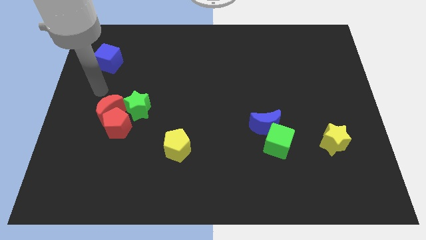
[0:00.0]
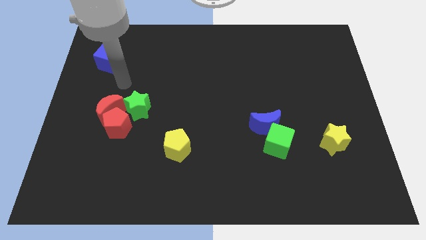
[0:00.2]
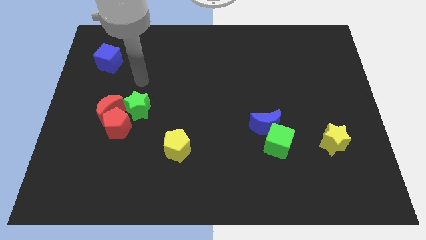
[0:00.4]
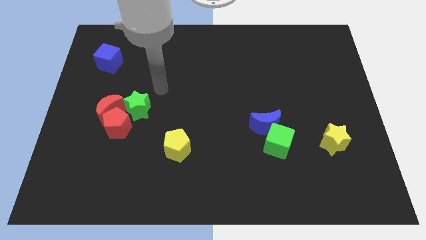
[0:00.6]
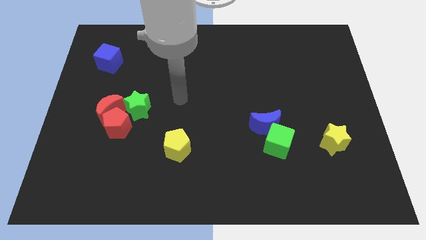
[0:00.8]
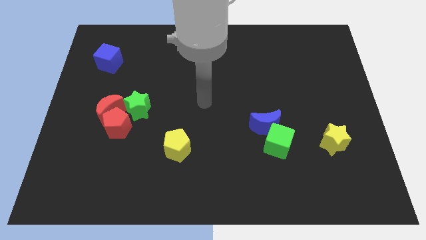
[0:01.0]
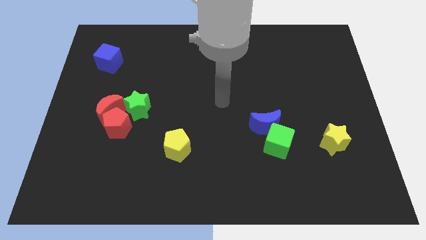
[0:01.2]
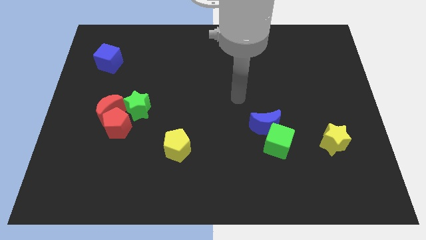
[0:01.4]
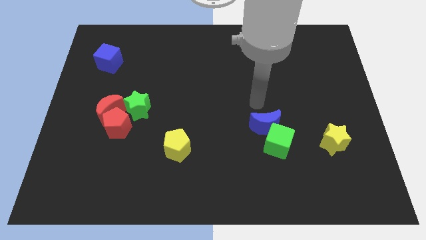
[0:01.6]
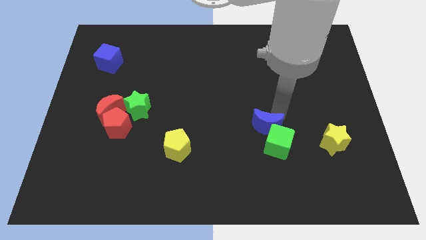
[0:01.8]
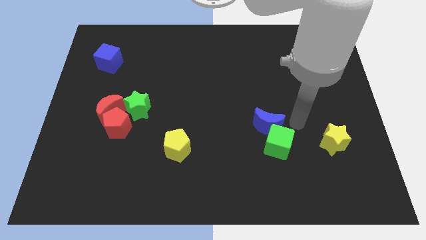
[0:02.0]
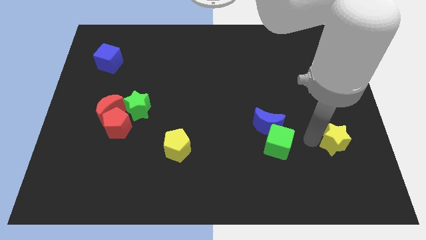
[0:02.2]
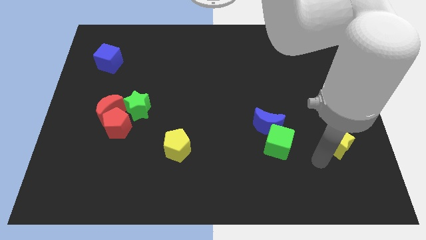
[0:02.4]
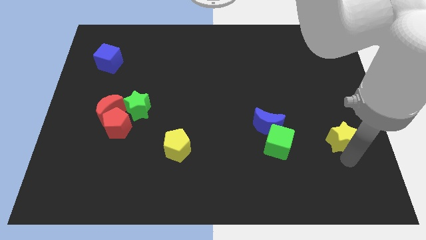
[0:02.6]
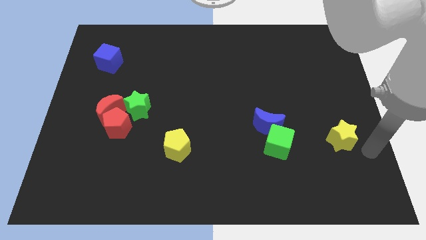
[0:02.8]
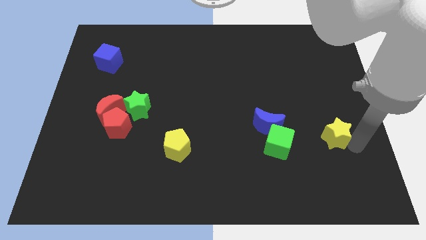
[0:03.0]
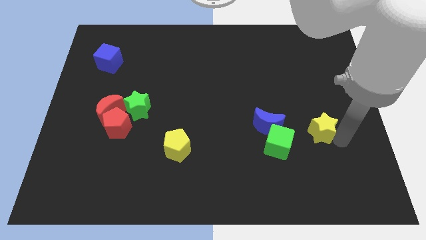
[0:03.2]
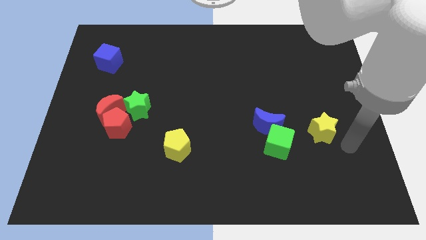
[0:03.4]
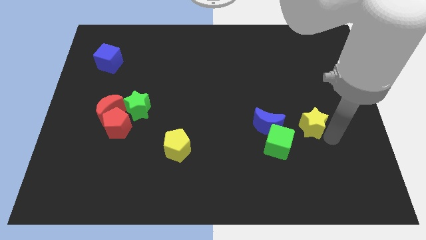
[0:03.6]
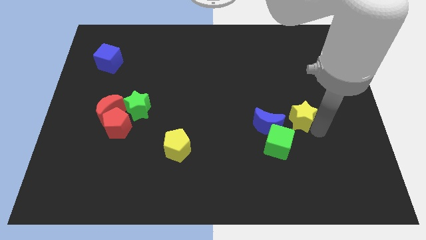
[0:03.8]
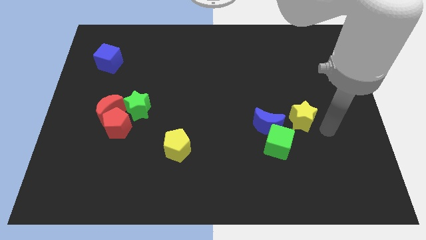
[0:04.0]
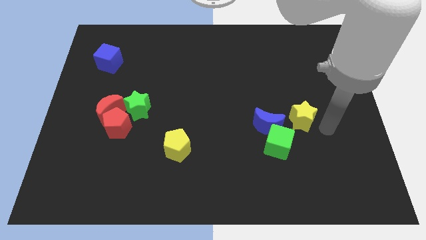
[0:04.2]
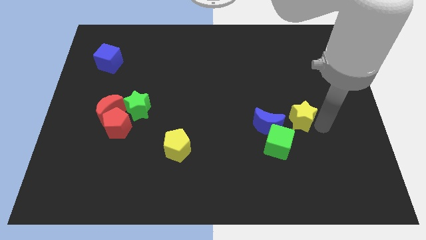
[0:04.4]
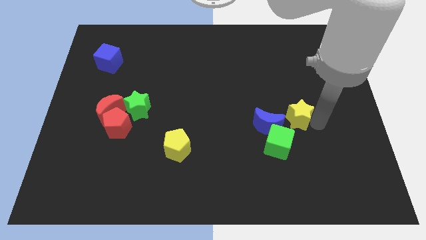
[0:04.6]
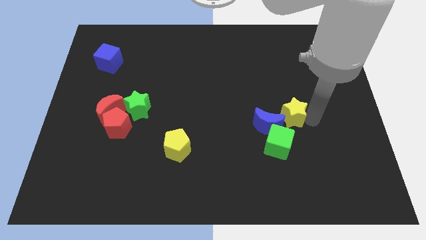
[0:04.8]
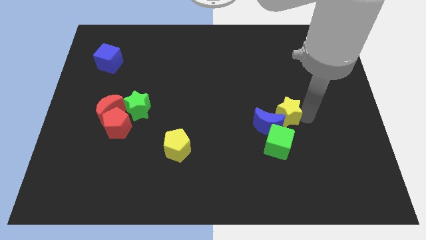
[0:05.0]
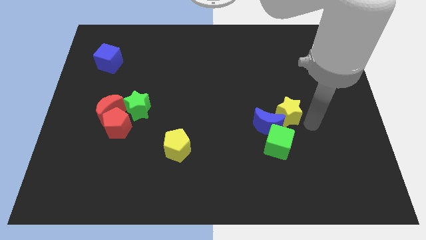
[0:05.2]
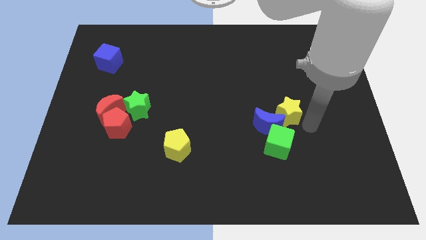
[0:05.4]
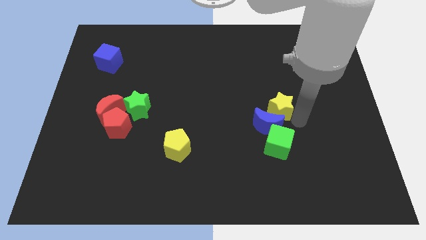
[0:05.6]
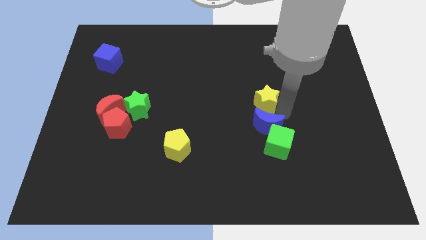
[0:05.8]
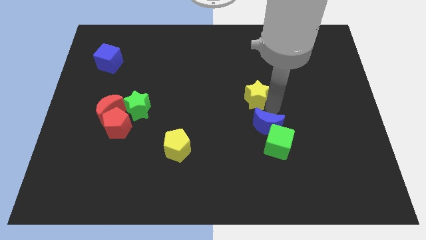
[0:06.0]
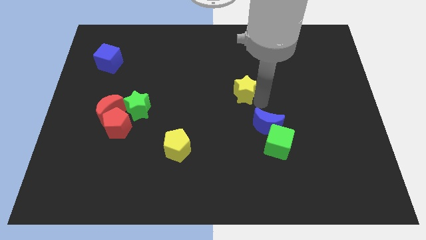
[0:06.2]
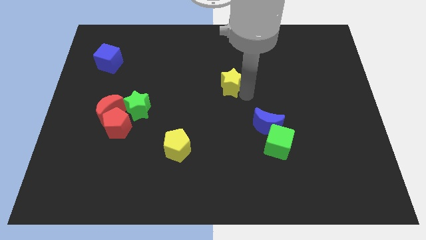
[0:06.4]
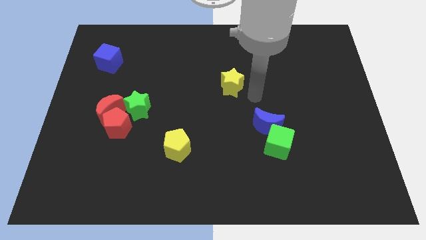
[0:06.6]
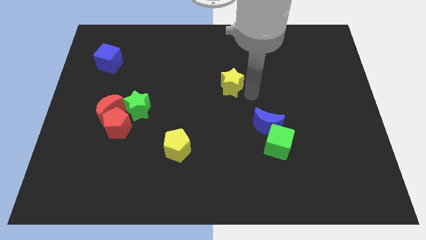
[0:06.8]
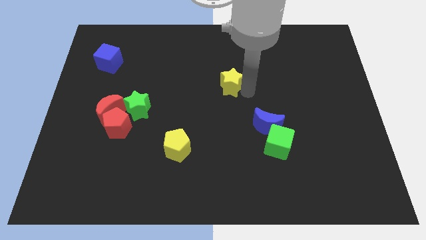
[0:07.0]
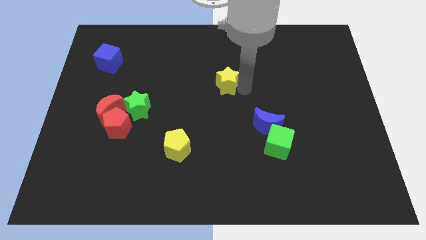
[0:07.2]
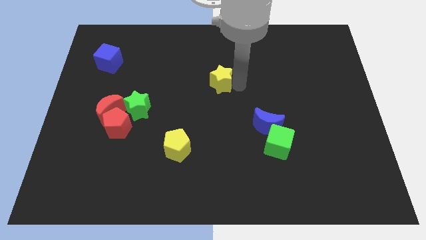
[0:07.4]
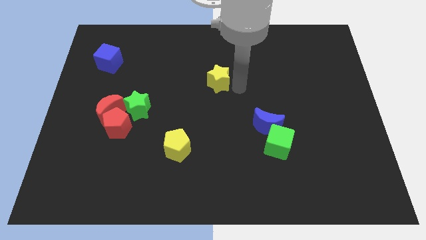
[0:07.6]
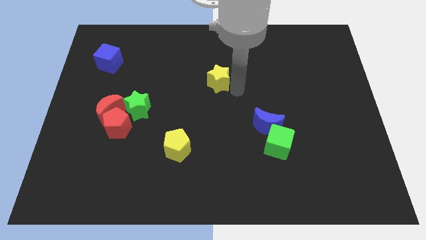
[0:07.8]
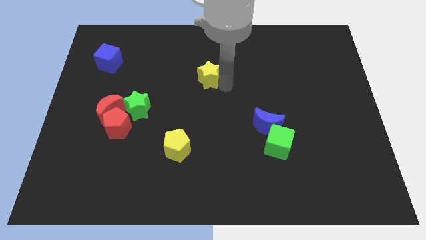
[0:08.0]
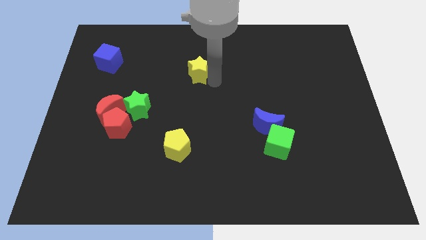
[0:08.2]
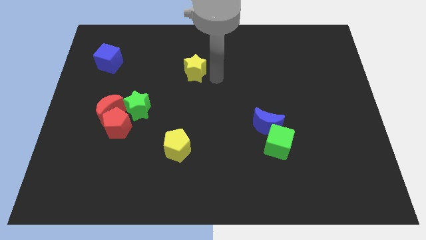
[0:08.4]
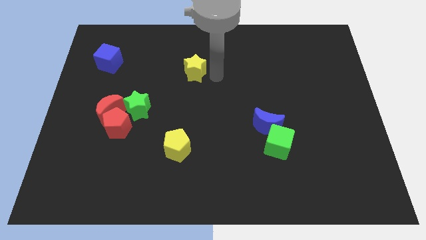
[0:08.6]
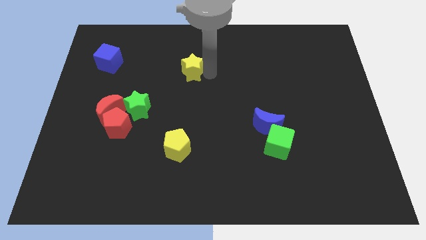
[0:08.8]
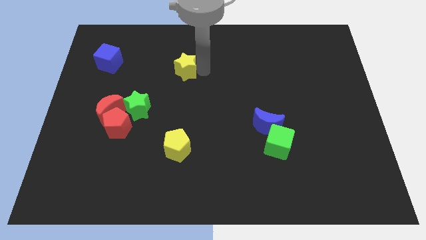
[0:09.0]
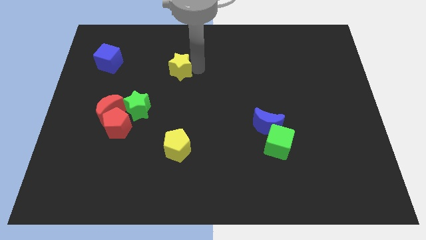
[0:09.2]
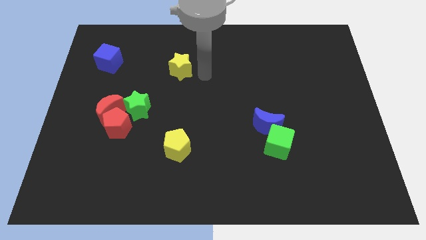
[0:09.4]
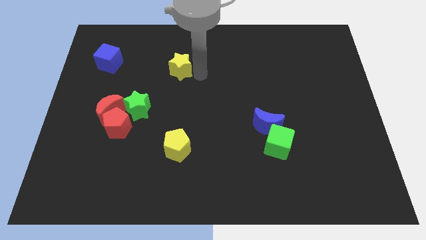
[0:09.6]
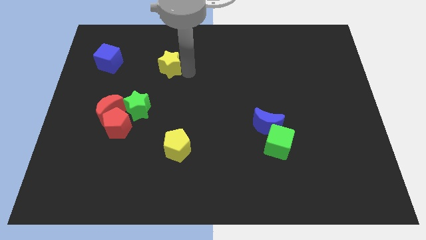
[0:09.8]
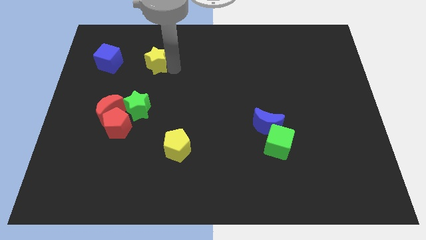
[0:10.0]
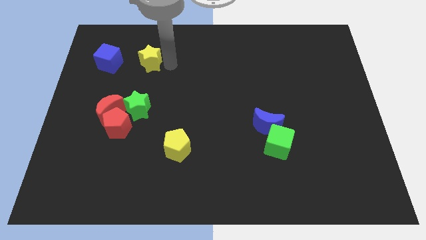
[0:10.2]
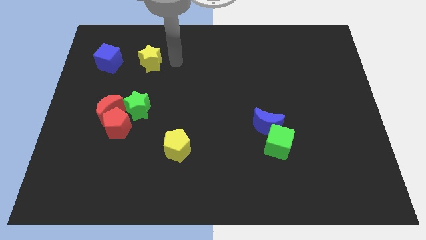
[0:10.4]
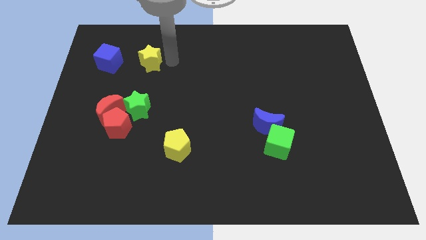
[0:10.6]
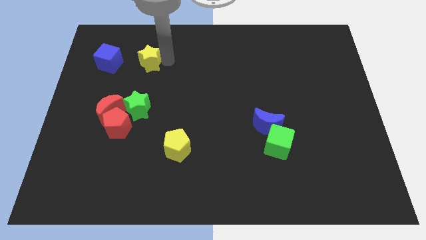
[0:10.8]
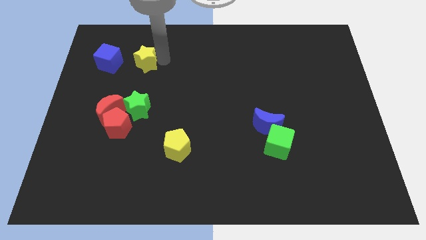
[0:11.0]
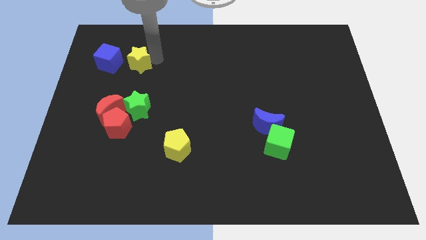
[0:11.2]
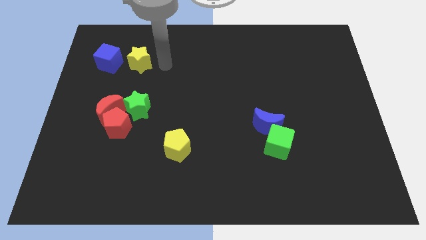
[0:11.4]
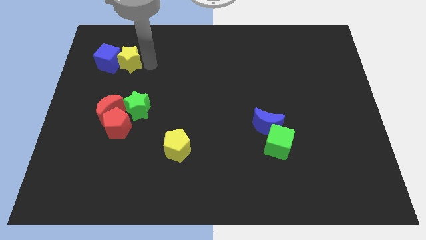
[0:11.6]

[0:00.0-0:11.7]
slide the yellow star close to the blue cube

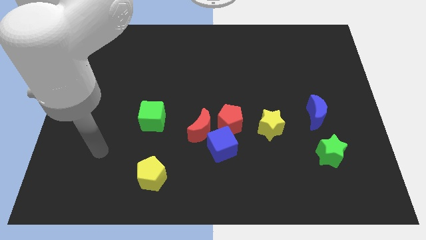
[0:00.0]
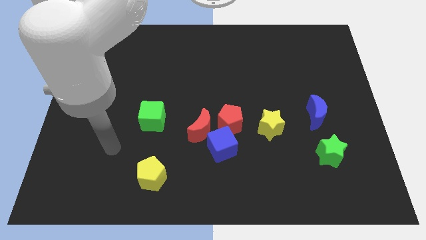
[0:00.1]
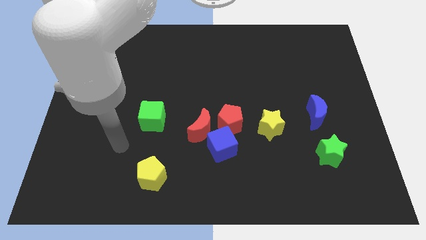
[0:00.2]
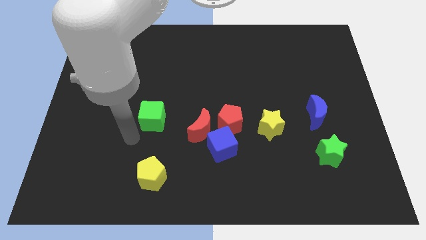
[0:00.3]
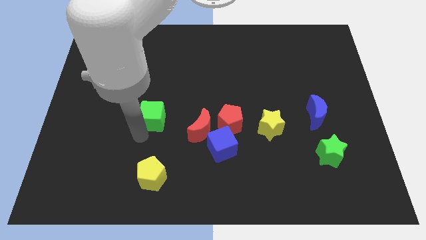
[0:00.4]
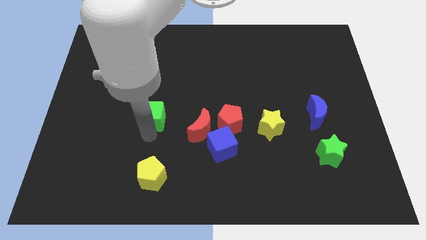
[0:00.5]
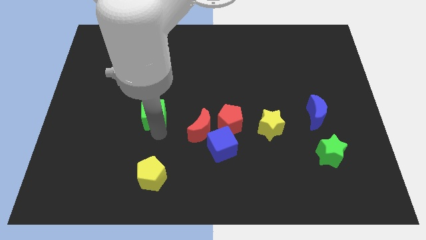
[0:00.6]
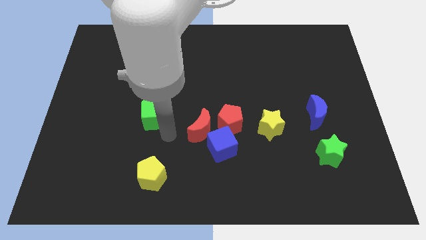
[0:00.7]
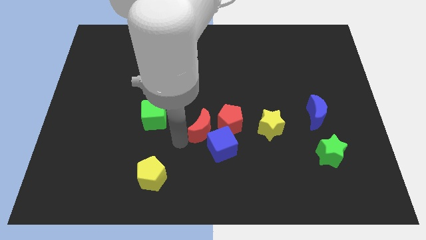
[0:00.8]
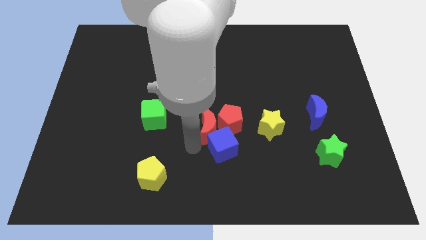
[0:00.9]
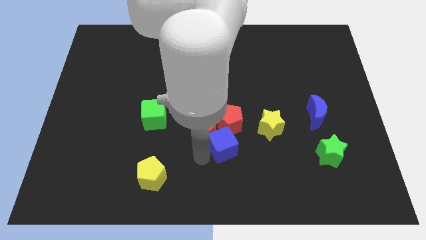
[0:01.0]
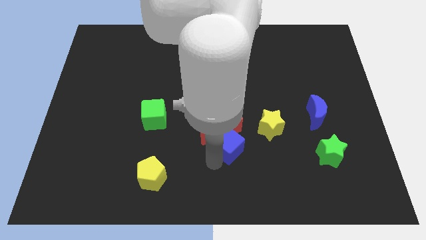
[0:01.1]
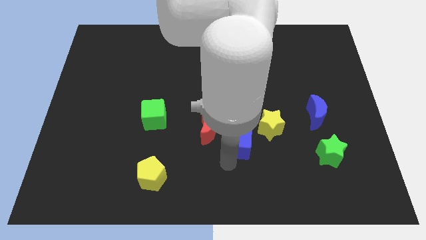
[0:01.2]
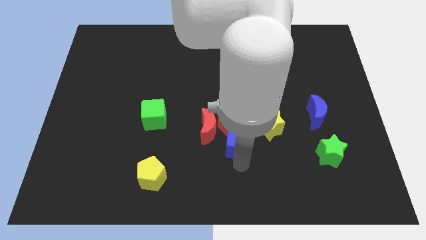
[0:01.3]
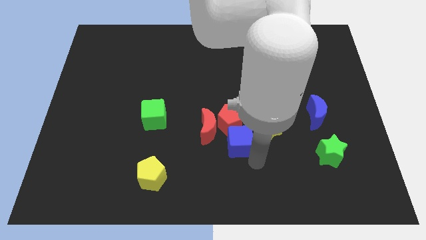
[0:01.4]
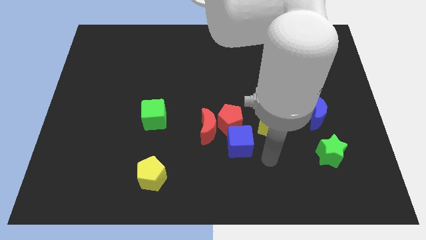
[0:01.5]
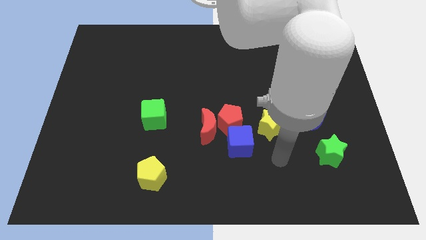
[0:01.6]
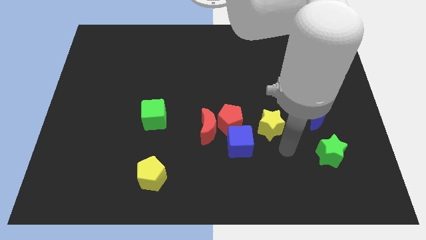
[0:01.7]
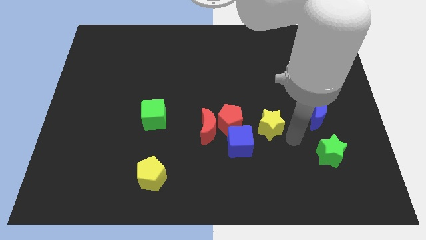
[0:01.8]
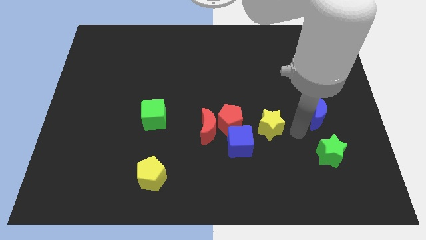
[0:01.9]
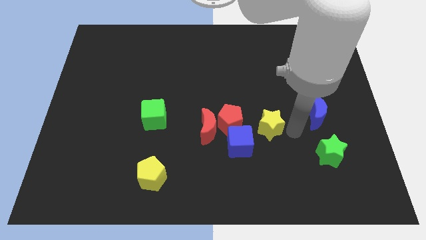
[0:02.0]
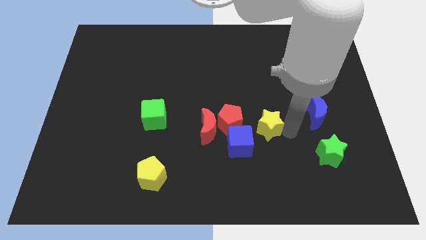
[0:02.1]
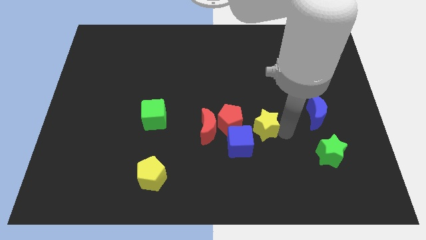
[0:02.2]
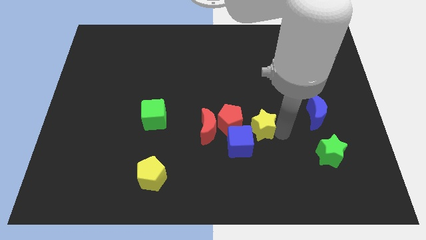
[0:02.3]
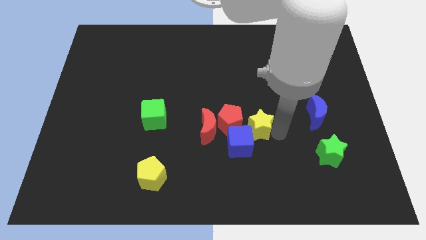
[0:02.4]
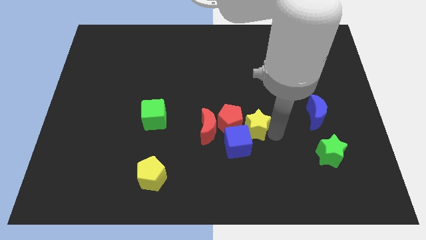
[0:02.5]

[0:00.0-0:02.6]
put the yellow star close to the red pentagon
